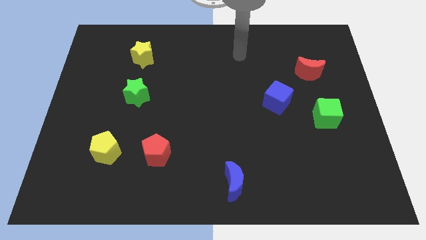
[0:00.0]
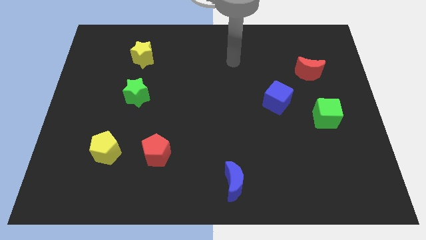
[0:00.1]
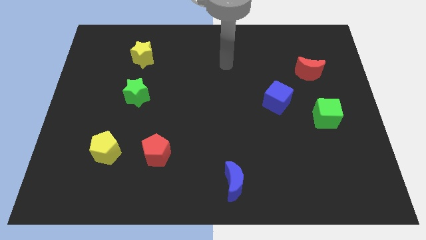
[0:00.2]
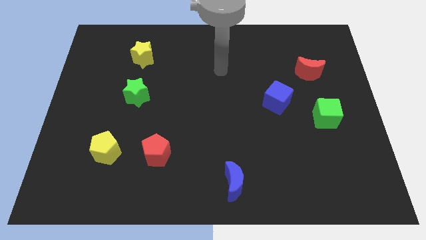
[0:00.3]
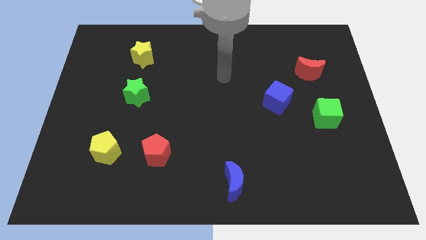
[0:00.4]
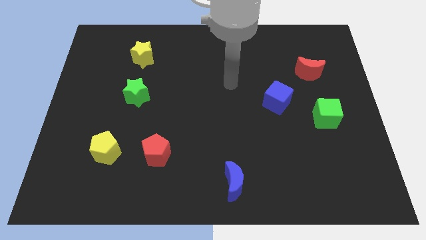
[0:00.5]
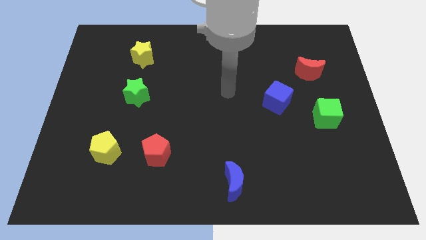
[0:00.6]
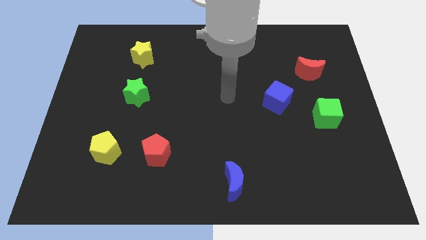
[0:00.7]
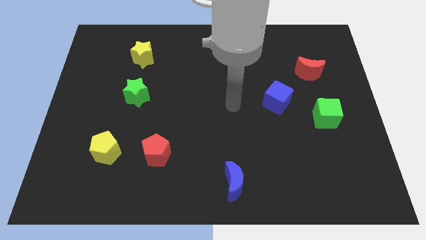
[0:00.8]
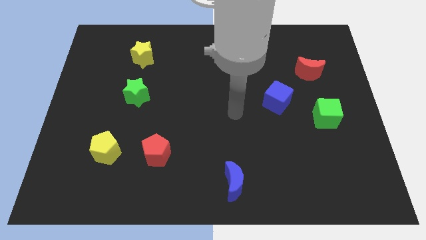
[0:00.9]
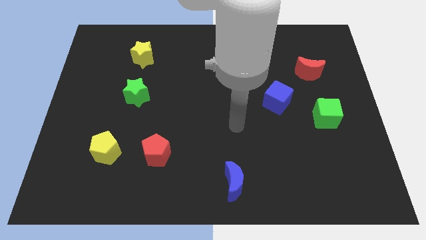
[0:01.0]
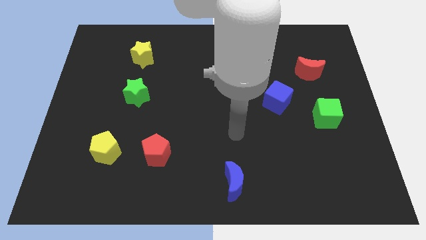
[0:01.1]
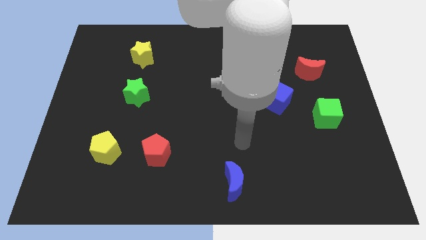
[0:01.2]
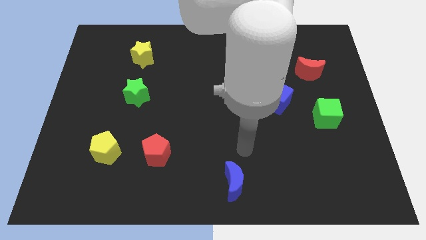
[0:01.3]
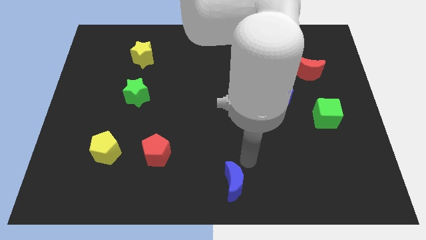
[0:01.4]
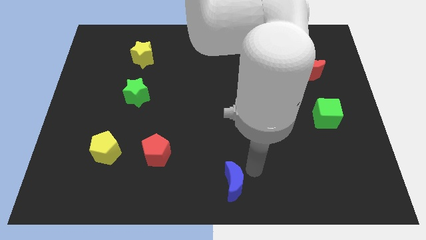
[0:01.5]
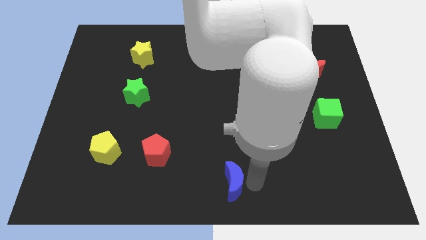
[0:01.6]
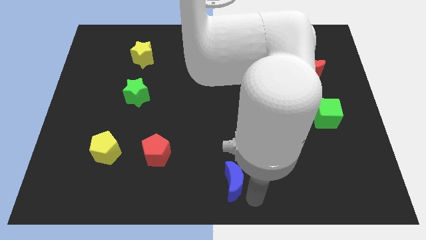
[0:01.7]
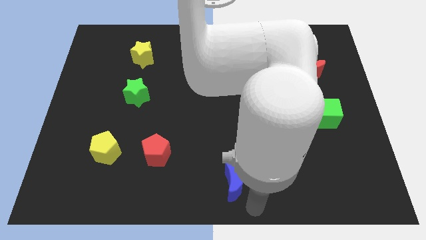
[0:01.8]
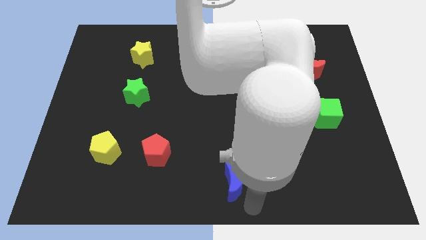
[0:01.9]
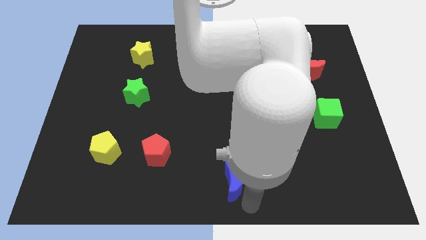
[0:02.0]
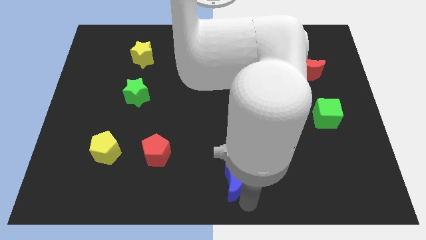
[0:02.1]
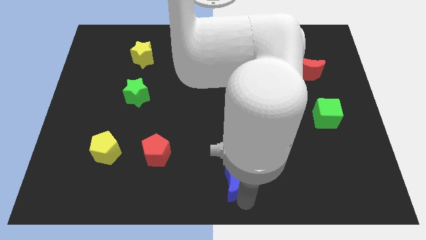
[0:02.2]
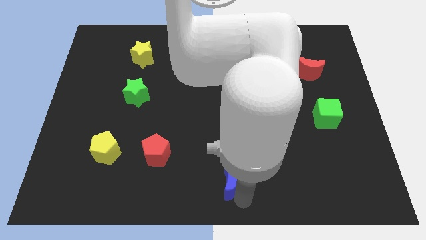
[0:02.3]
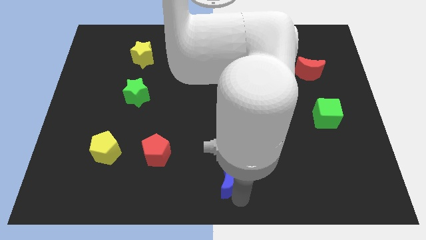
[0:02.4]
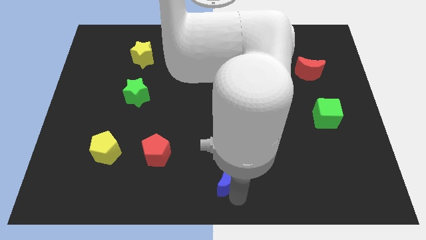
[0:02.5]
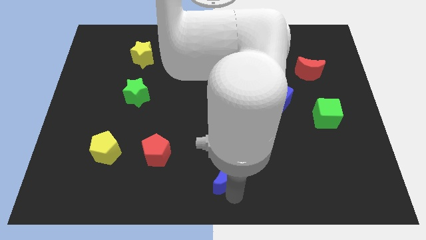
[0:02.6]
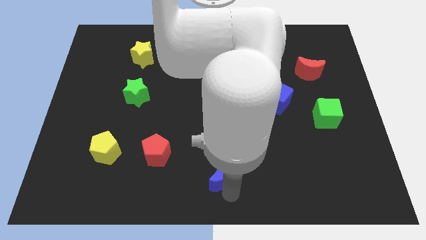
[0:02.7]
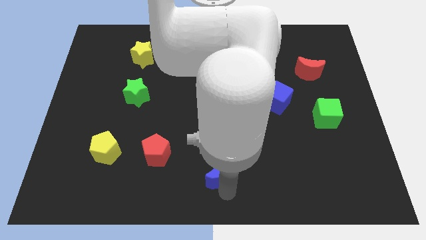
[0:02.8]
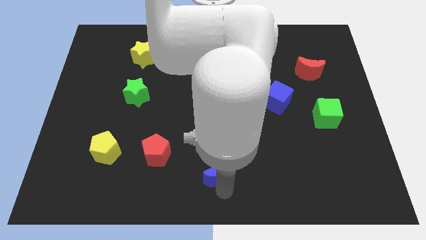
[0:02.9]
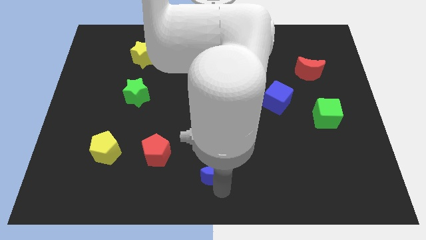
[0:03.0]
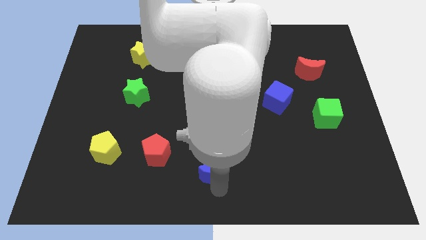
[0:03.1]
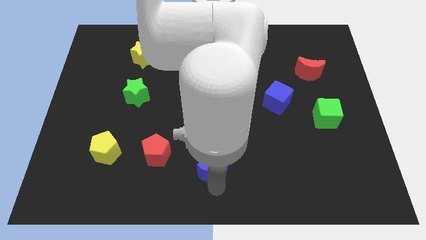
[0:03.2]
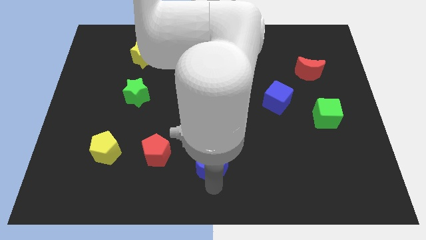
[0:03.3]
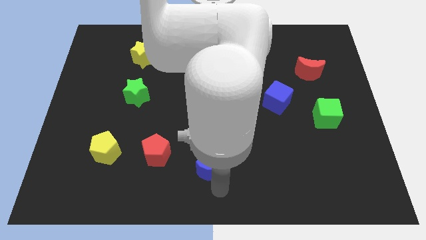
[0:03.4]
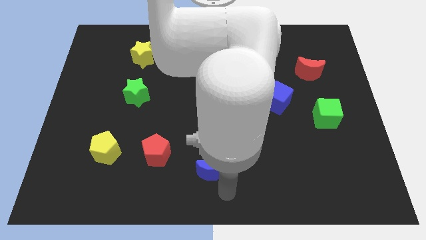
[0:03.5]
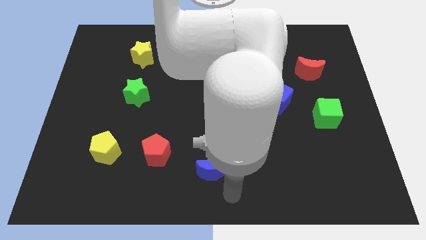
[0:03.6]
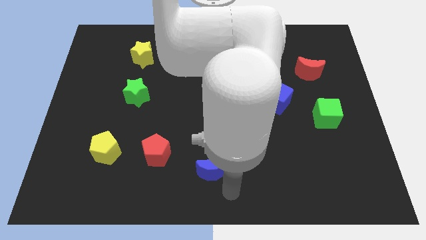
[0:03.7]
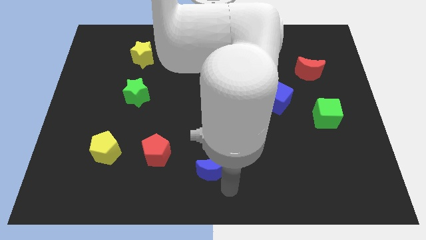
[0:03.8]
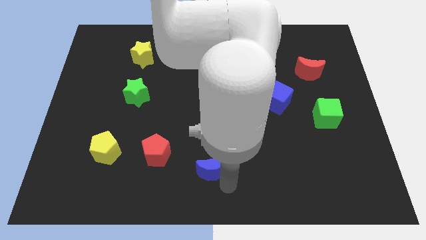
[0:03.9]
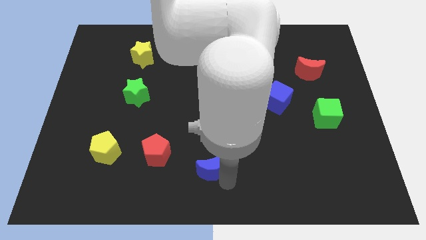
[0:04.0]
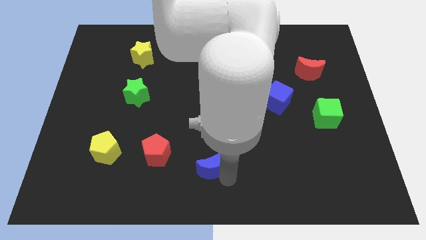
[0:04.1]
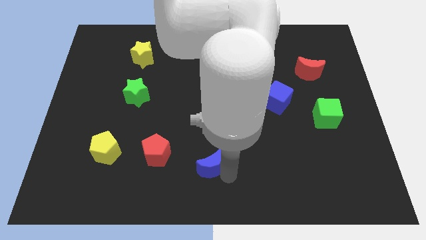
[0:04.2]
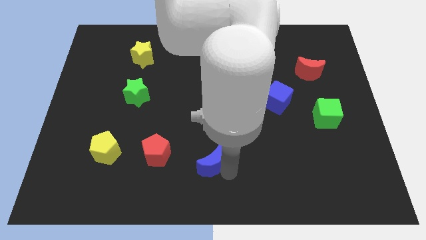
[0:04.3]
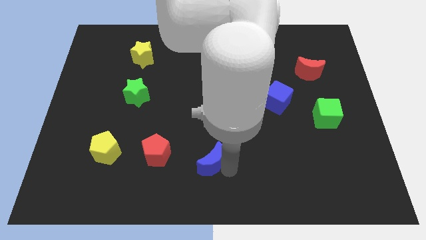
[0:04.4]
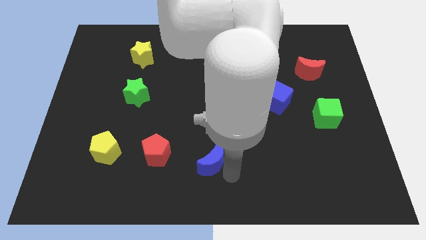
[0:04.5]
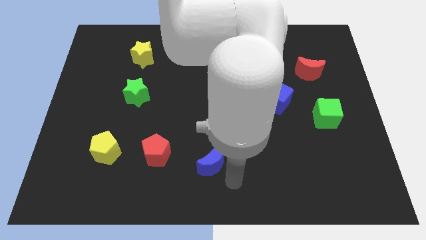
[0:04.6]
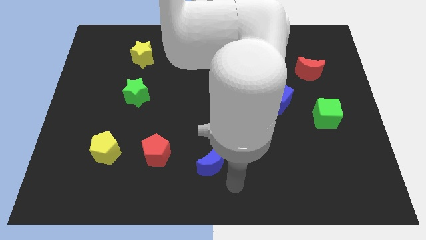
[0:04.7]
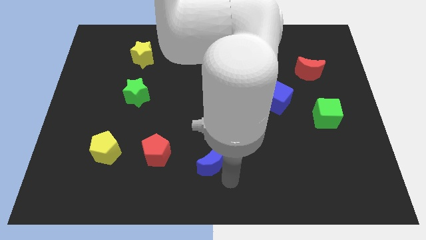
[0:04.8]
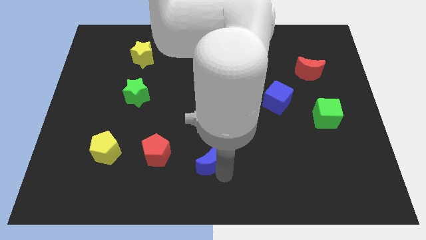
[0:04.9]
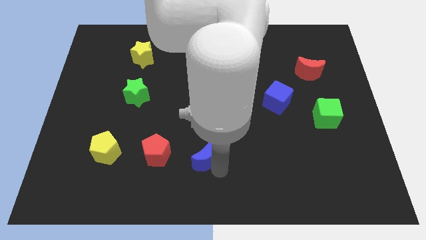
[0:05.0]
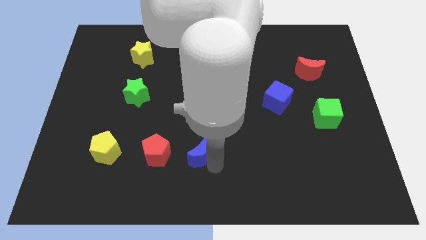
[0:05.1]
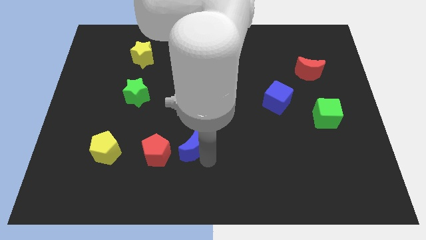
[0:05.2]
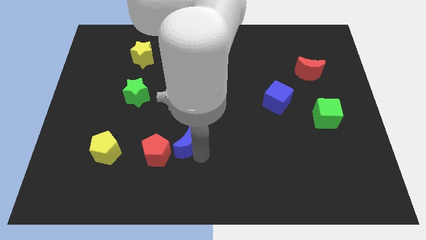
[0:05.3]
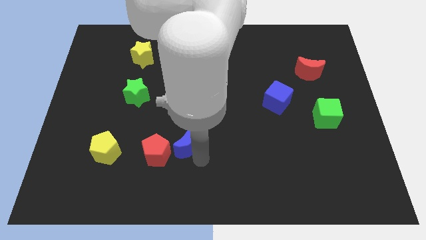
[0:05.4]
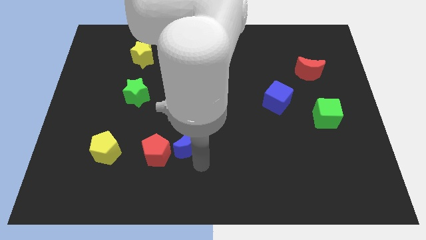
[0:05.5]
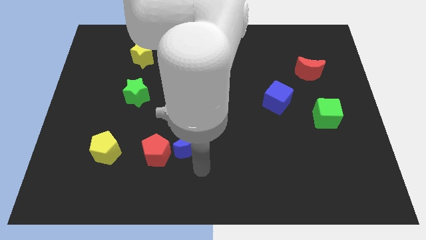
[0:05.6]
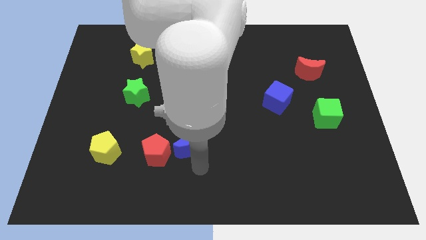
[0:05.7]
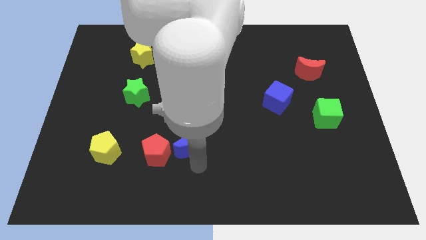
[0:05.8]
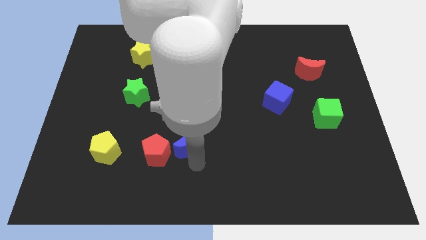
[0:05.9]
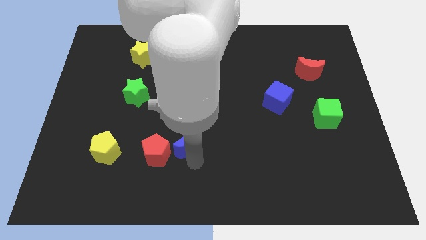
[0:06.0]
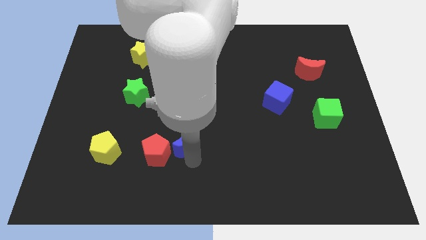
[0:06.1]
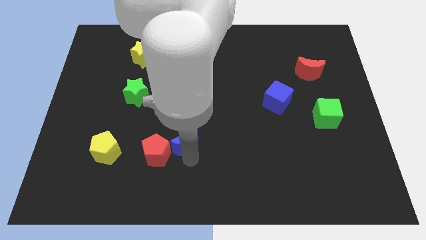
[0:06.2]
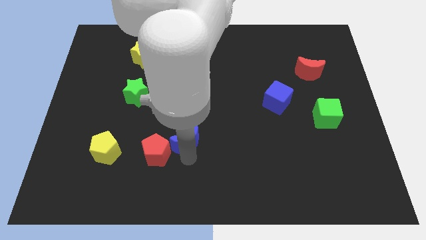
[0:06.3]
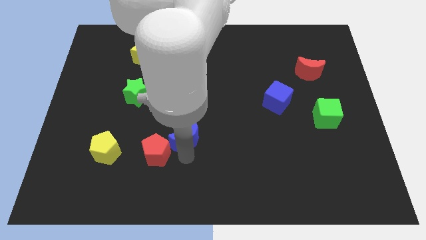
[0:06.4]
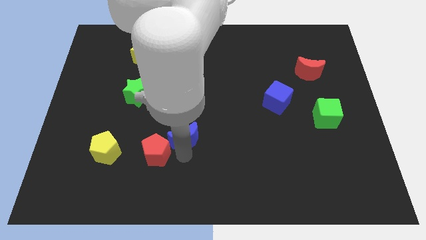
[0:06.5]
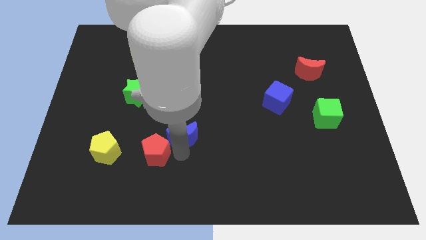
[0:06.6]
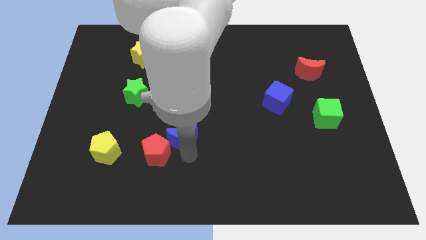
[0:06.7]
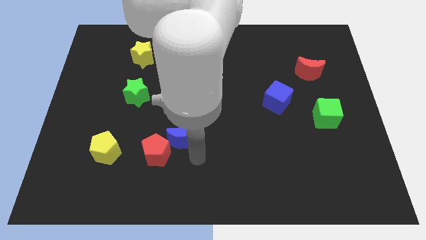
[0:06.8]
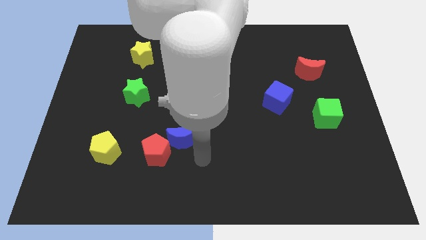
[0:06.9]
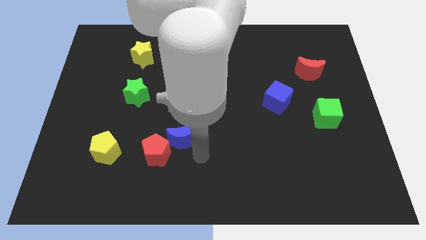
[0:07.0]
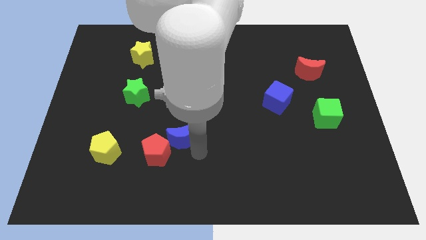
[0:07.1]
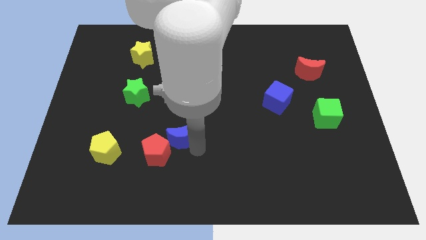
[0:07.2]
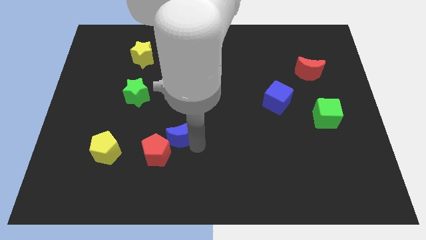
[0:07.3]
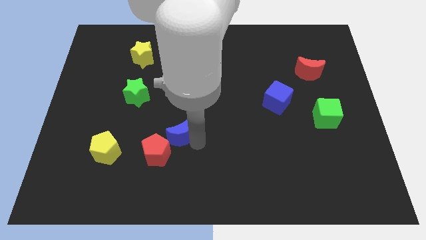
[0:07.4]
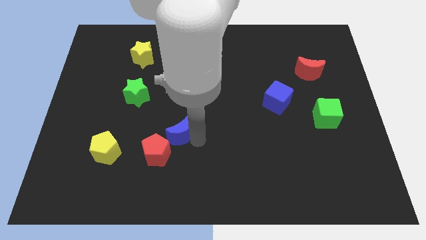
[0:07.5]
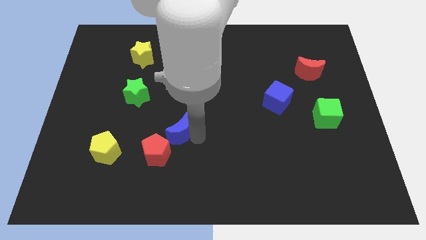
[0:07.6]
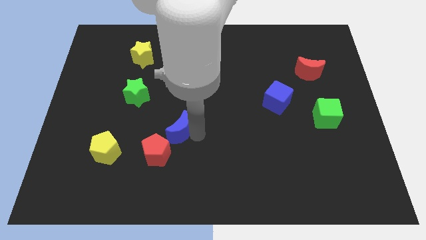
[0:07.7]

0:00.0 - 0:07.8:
put the blue moon above the red pentagon
